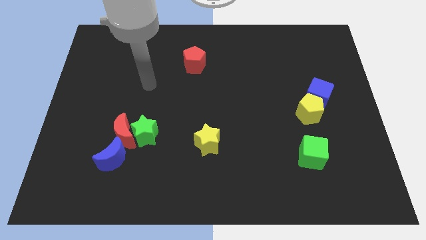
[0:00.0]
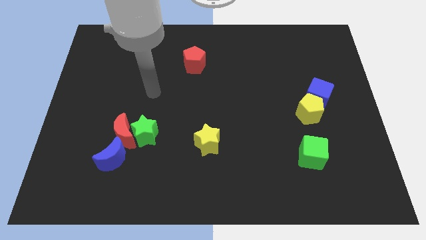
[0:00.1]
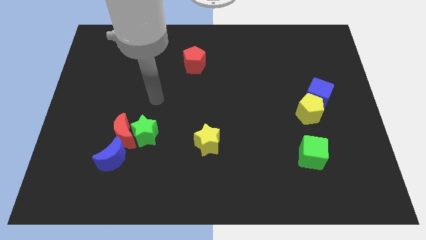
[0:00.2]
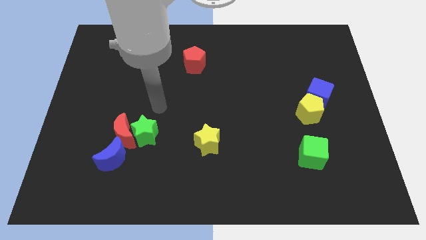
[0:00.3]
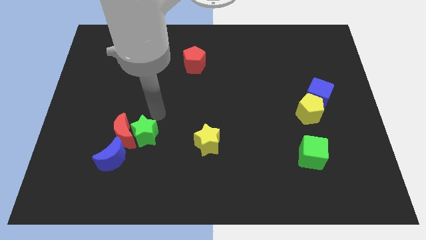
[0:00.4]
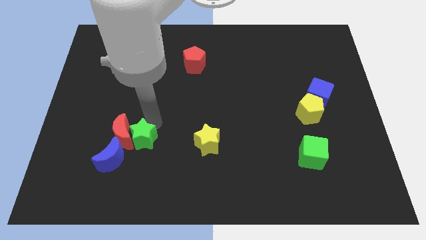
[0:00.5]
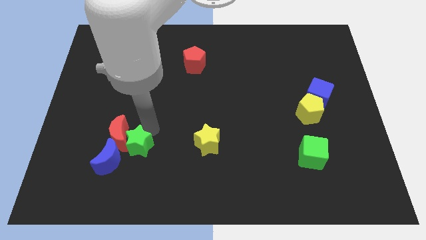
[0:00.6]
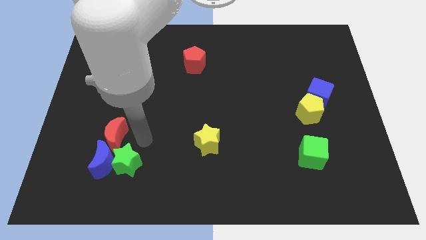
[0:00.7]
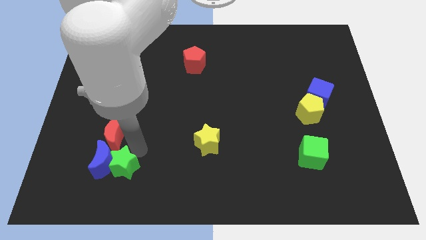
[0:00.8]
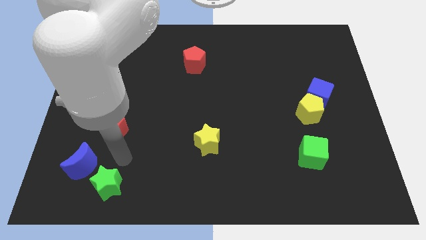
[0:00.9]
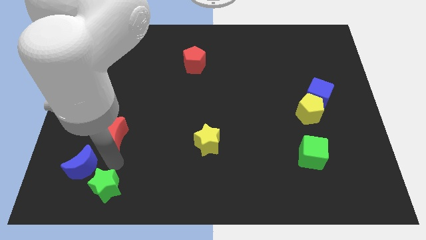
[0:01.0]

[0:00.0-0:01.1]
move the red moon away from the green star and blue moon

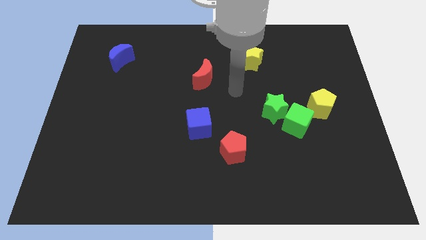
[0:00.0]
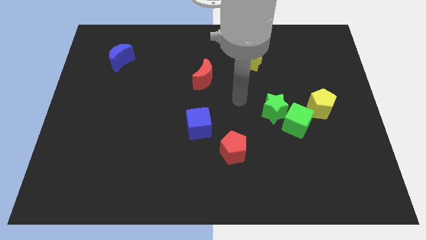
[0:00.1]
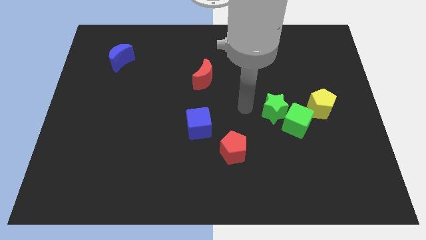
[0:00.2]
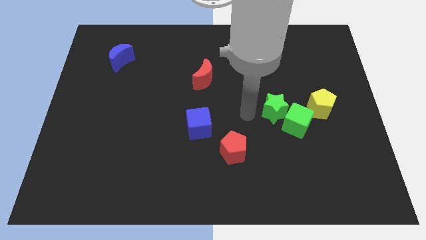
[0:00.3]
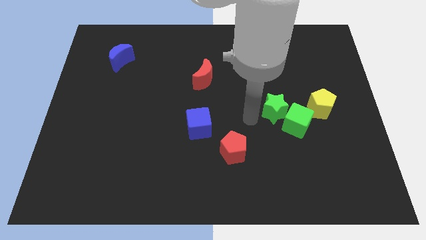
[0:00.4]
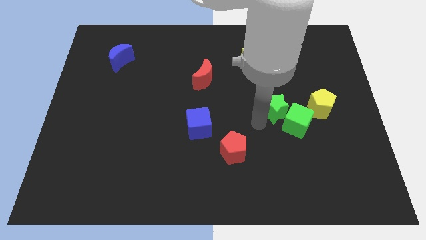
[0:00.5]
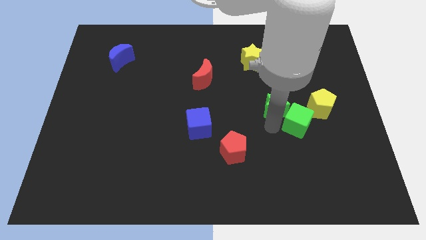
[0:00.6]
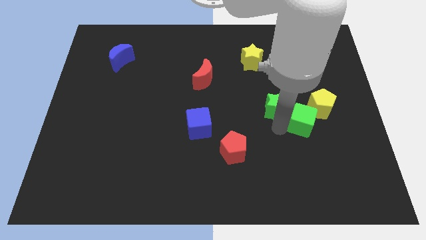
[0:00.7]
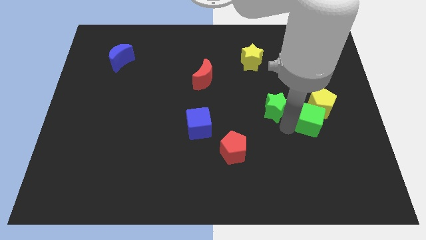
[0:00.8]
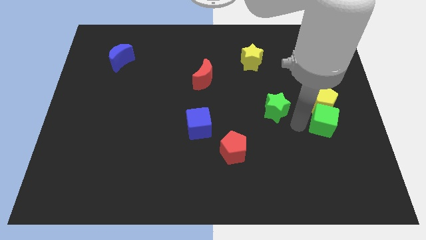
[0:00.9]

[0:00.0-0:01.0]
separate the green star from the green cube

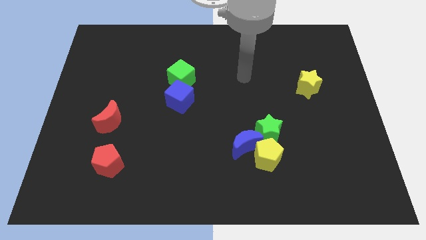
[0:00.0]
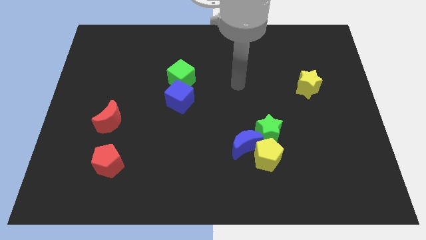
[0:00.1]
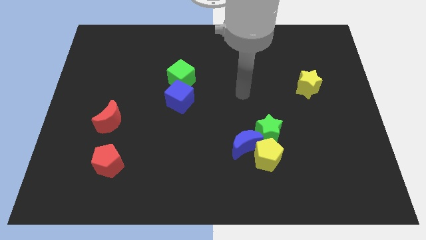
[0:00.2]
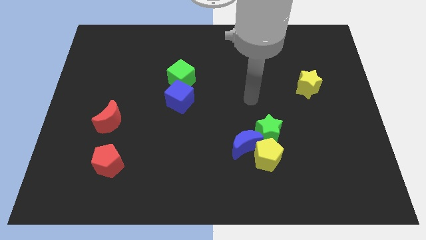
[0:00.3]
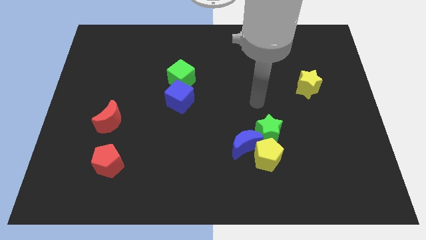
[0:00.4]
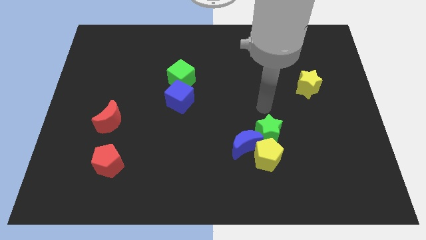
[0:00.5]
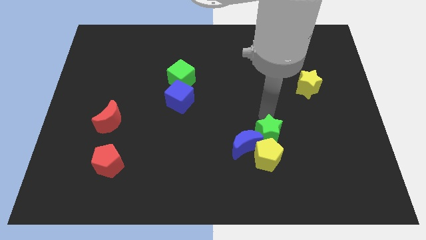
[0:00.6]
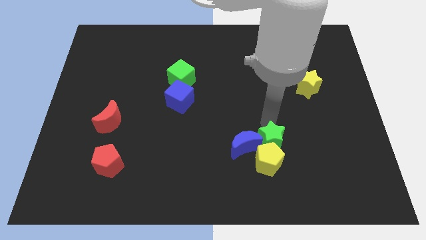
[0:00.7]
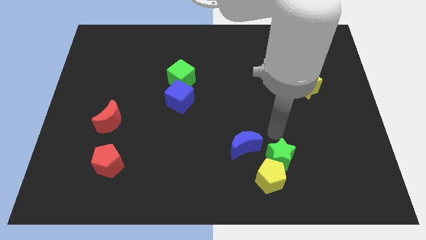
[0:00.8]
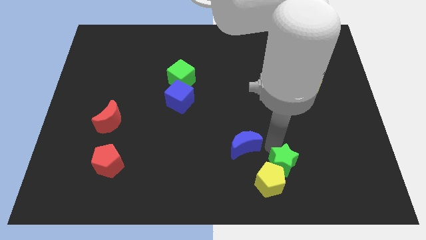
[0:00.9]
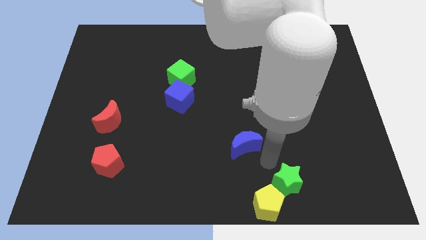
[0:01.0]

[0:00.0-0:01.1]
move the blue moon away from the yellow pentagon and green star

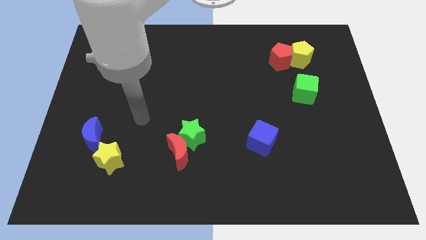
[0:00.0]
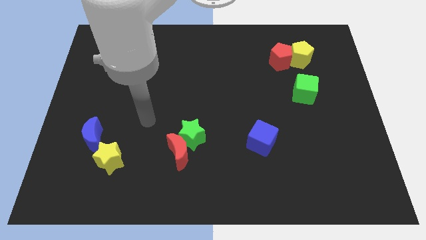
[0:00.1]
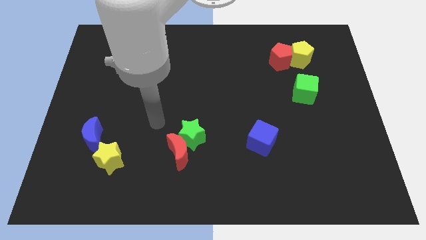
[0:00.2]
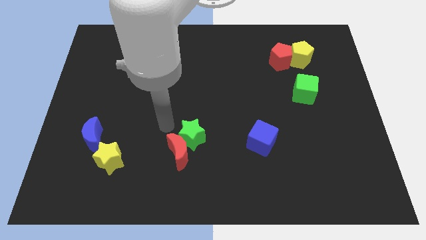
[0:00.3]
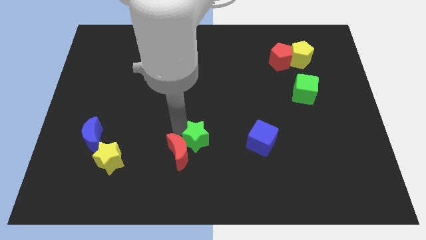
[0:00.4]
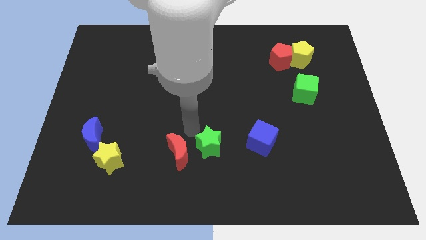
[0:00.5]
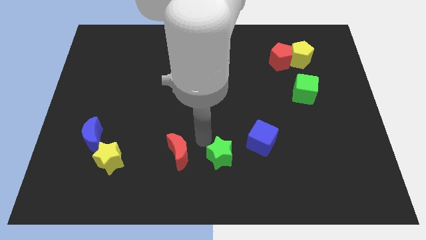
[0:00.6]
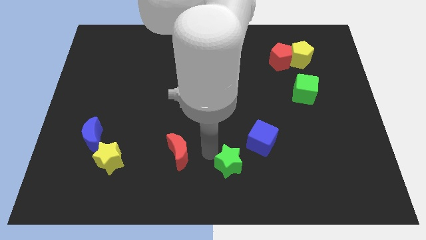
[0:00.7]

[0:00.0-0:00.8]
move the red moon away from the green star

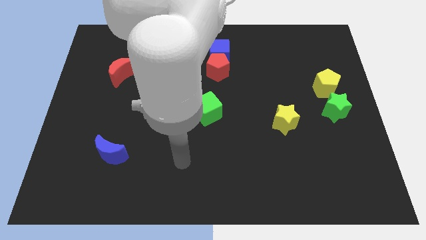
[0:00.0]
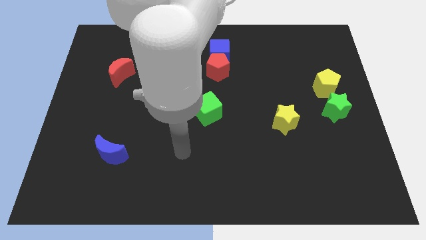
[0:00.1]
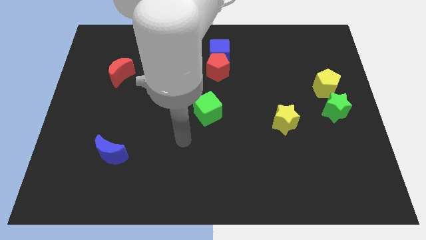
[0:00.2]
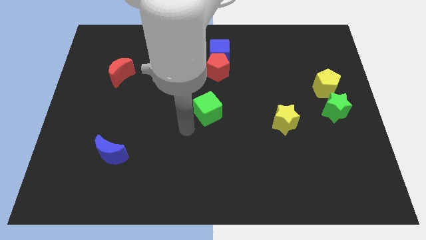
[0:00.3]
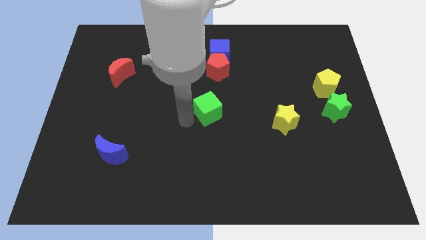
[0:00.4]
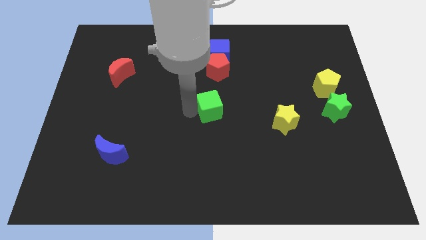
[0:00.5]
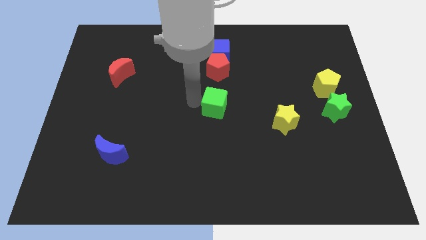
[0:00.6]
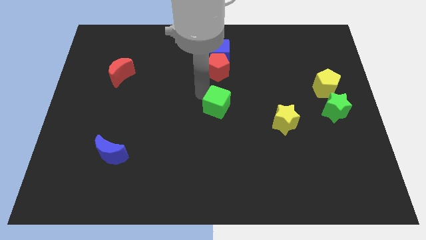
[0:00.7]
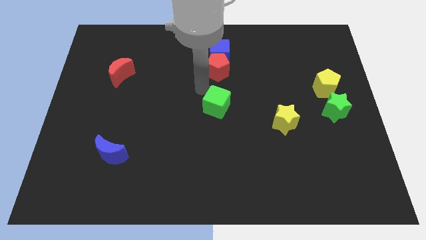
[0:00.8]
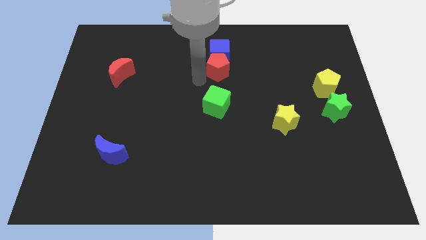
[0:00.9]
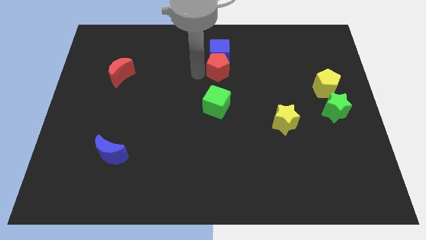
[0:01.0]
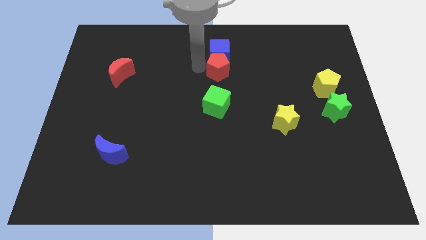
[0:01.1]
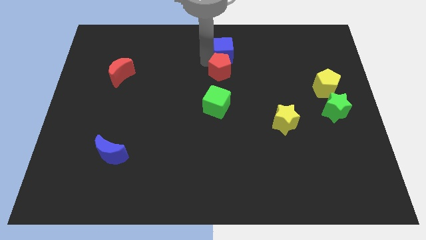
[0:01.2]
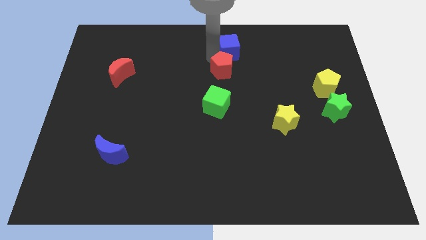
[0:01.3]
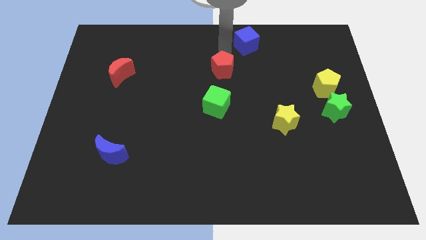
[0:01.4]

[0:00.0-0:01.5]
separate the red pentagon from the blue cube

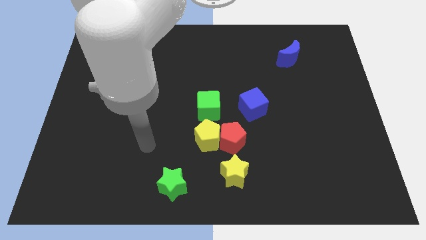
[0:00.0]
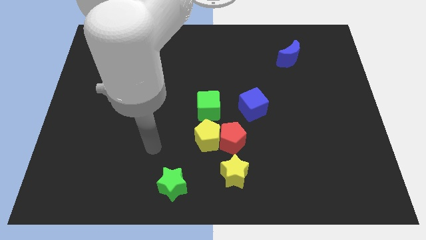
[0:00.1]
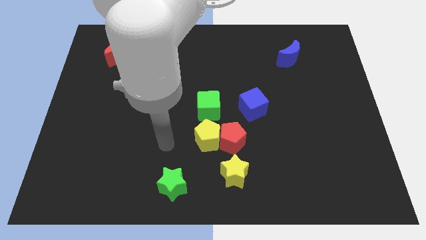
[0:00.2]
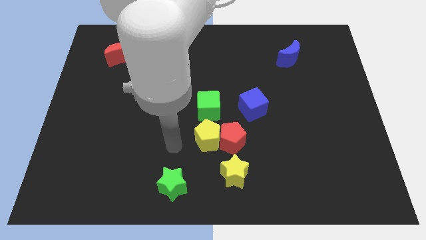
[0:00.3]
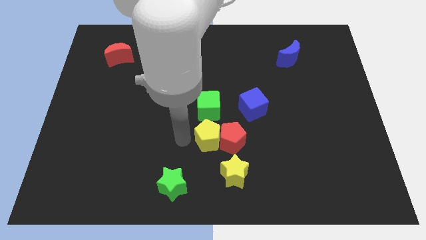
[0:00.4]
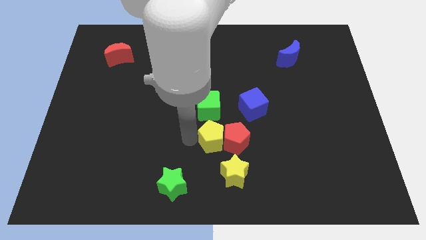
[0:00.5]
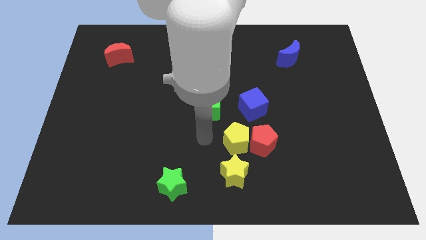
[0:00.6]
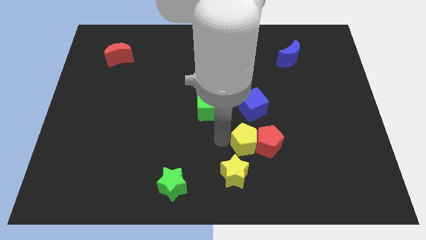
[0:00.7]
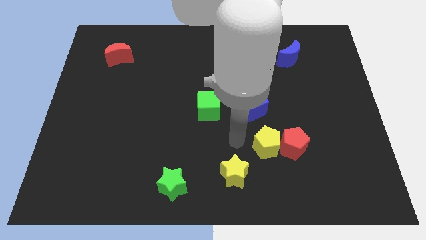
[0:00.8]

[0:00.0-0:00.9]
separate the red pentagon from the clump

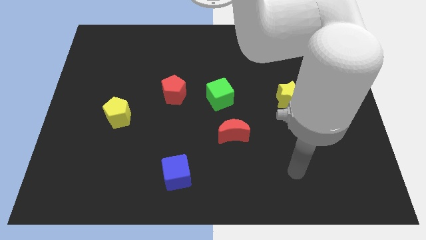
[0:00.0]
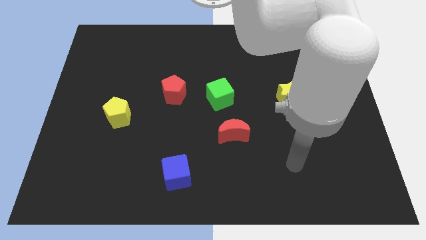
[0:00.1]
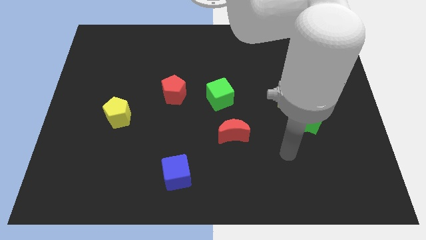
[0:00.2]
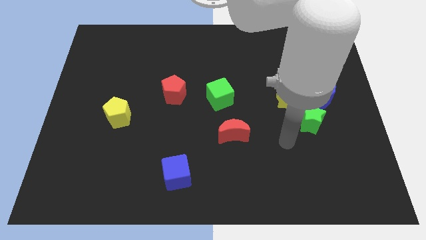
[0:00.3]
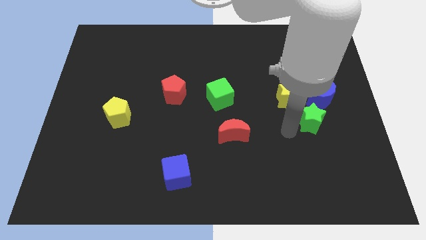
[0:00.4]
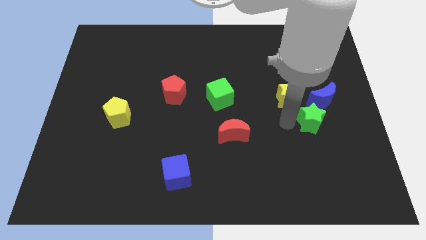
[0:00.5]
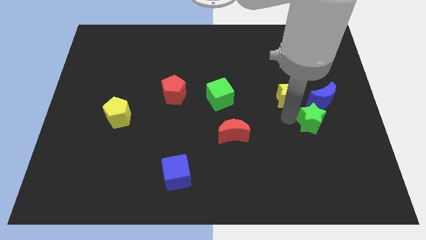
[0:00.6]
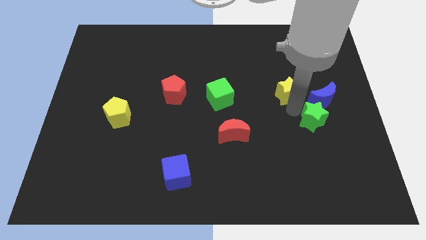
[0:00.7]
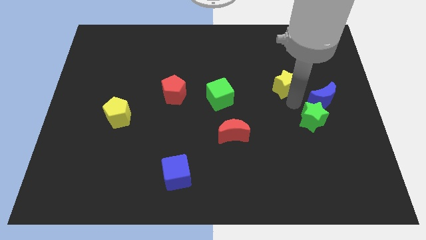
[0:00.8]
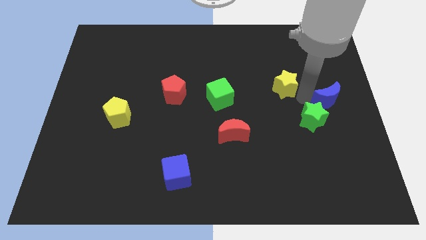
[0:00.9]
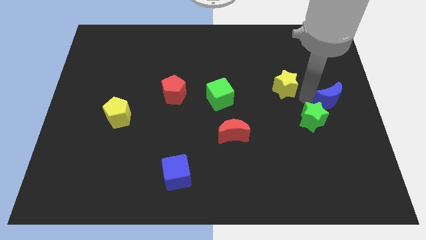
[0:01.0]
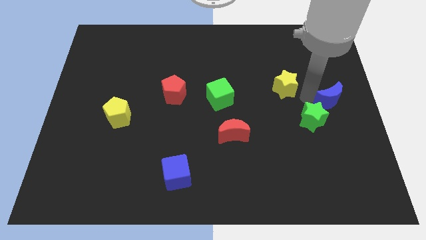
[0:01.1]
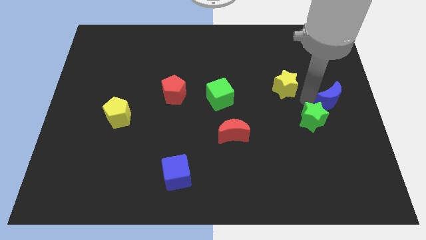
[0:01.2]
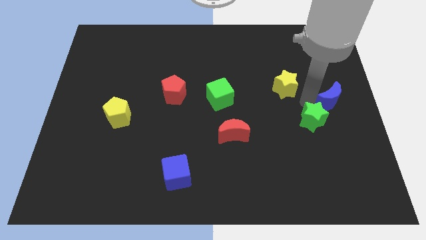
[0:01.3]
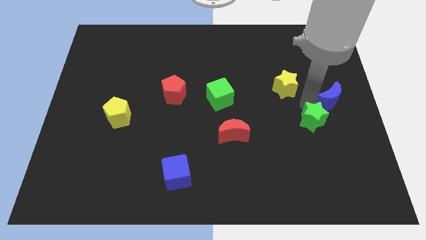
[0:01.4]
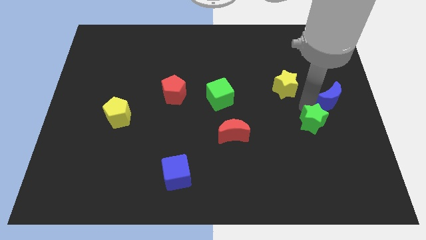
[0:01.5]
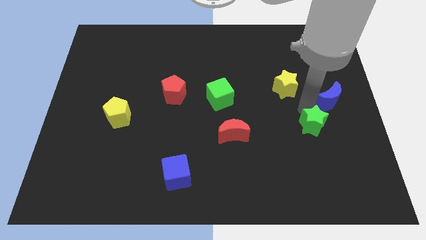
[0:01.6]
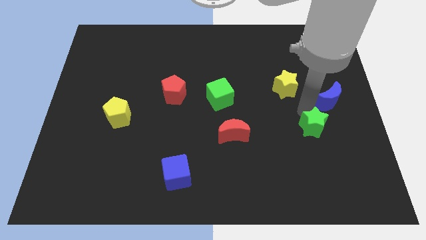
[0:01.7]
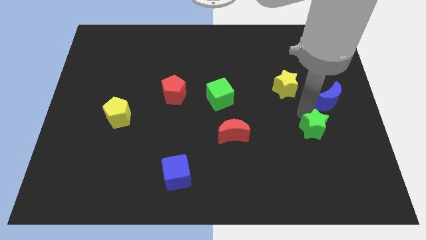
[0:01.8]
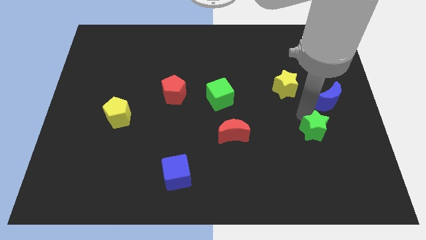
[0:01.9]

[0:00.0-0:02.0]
pull the green star apart from the blue moon and yellow star

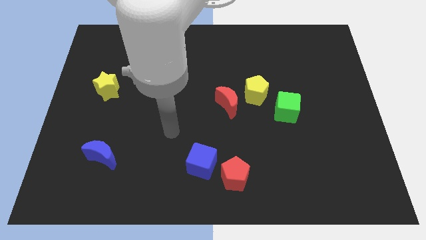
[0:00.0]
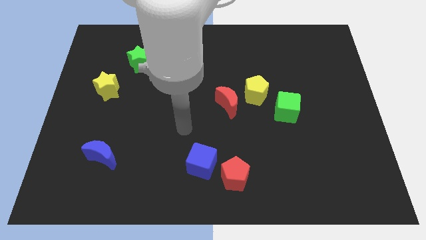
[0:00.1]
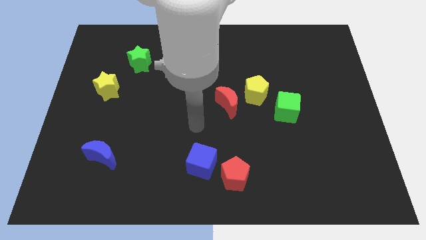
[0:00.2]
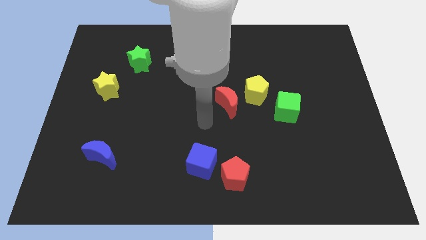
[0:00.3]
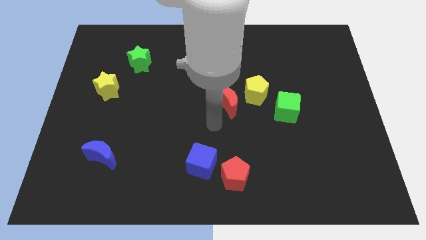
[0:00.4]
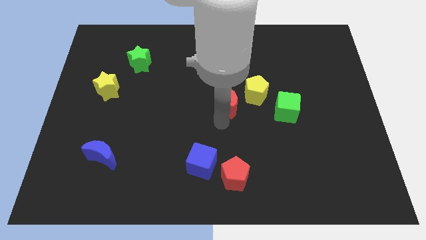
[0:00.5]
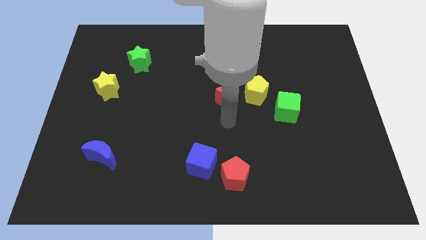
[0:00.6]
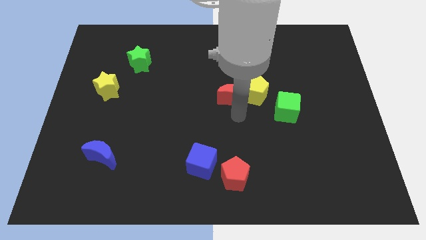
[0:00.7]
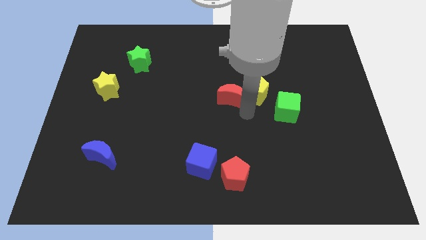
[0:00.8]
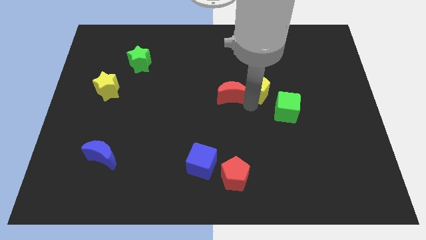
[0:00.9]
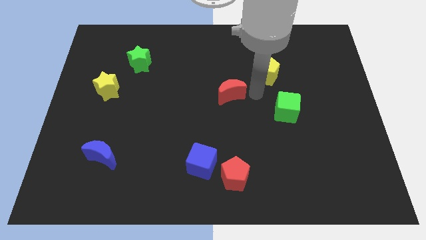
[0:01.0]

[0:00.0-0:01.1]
pull the red moon apart from the yellow pentagon

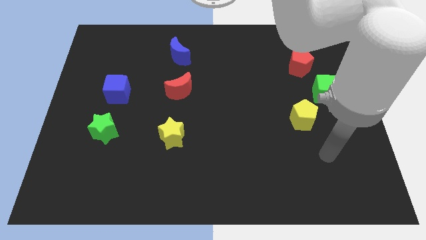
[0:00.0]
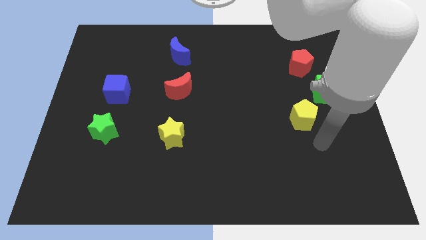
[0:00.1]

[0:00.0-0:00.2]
move the red pentagon away from the green cube
